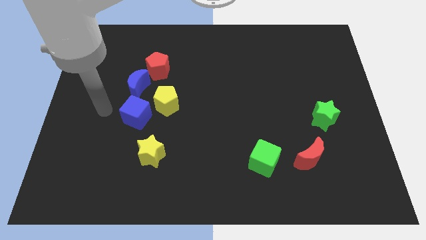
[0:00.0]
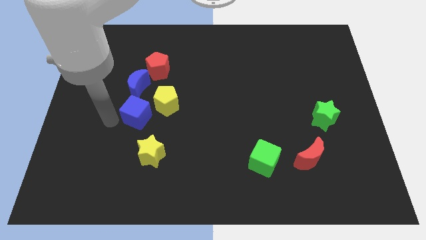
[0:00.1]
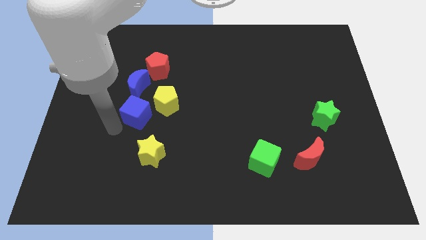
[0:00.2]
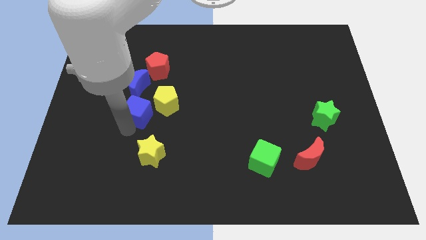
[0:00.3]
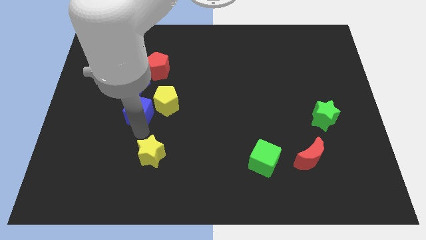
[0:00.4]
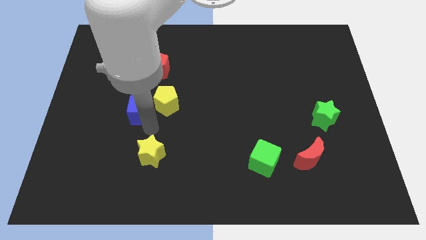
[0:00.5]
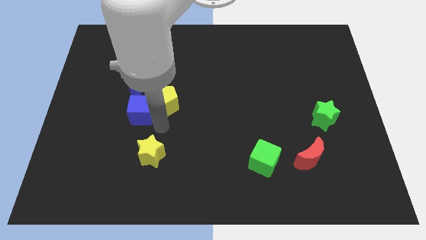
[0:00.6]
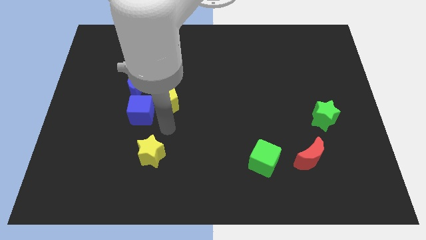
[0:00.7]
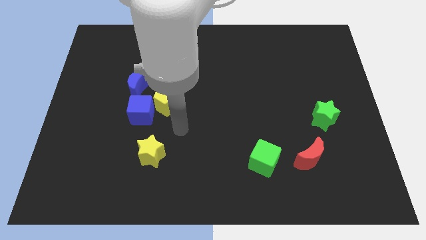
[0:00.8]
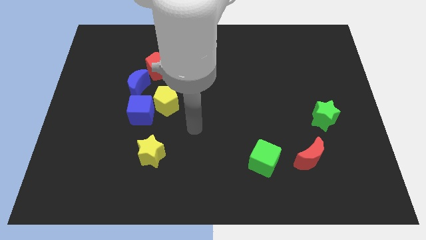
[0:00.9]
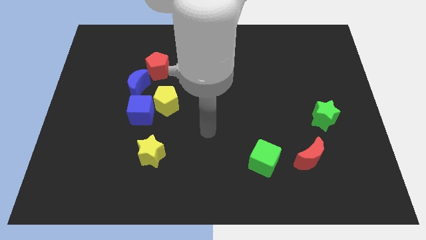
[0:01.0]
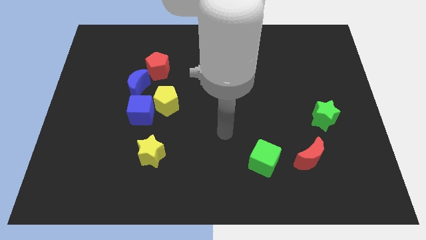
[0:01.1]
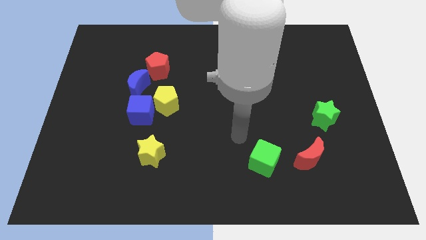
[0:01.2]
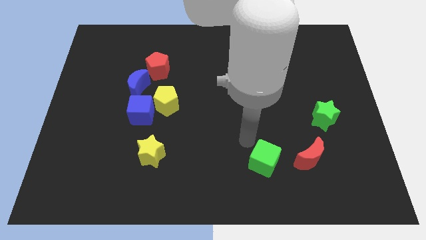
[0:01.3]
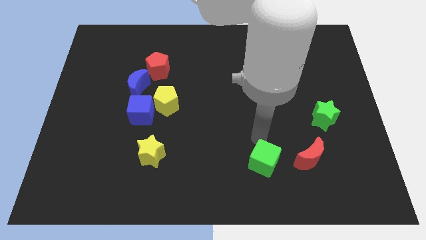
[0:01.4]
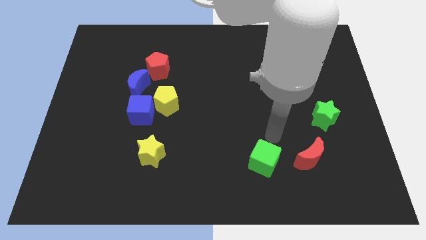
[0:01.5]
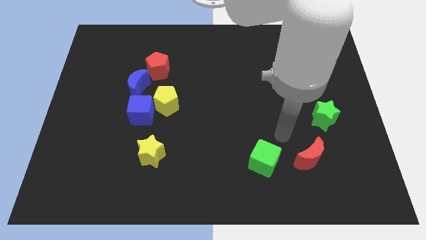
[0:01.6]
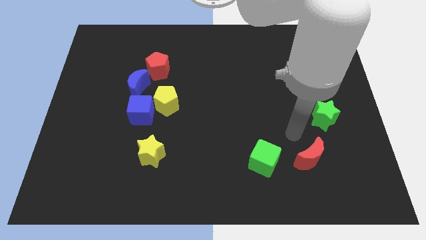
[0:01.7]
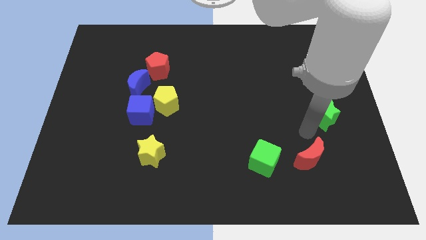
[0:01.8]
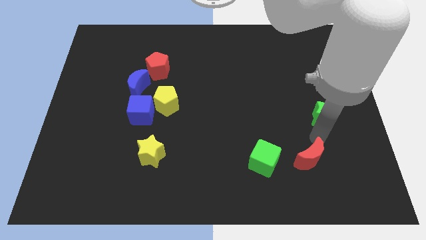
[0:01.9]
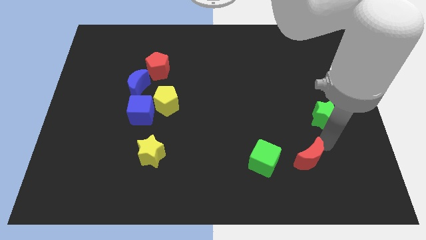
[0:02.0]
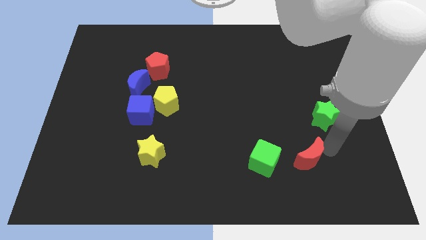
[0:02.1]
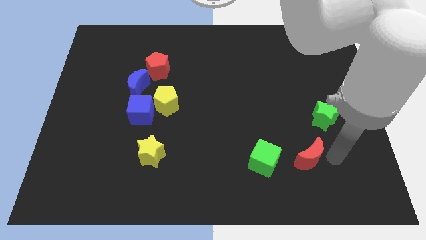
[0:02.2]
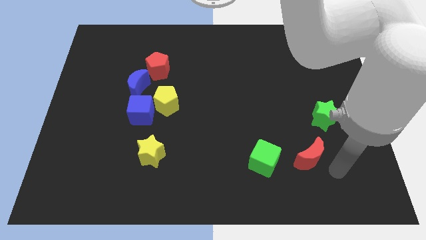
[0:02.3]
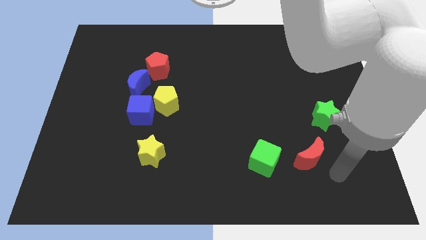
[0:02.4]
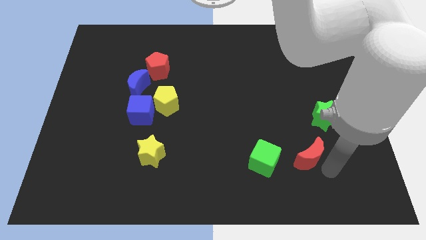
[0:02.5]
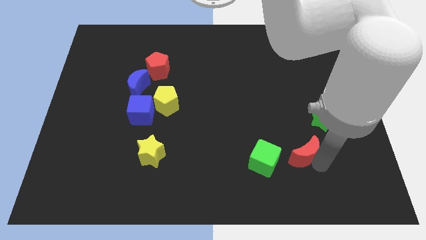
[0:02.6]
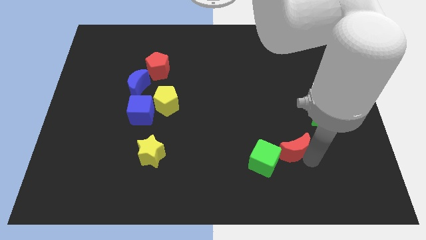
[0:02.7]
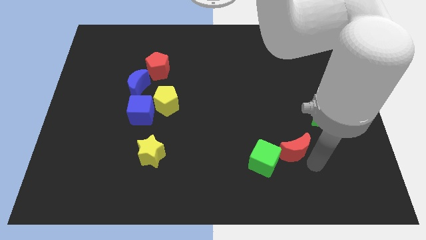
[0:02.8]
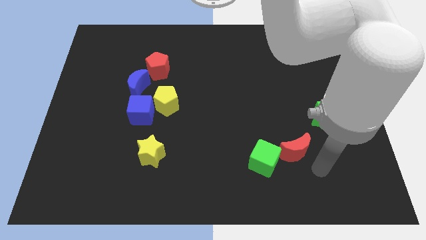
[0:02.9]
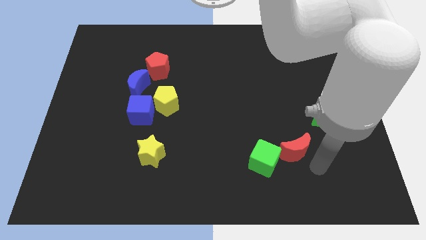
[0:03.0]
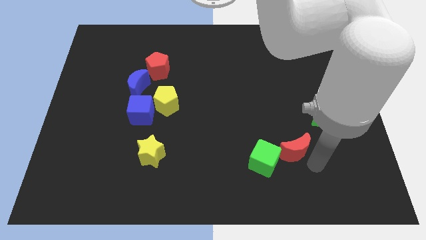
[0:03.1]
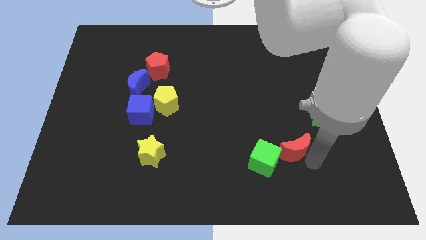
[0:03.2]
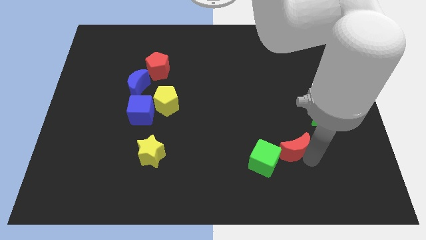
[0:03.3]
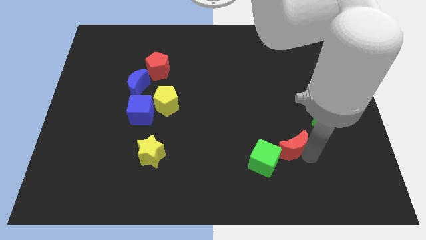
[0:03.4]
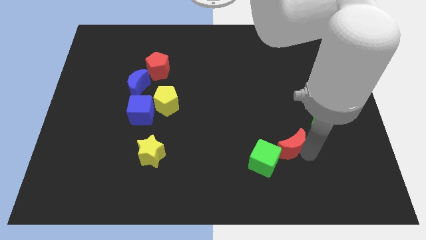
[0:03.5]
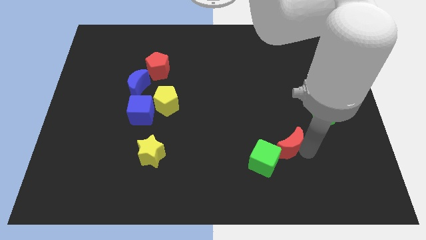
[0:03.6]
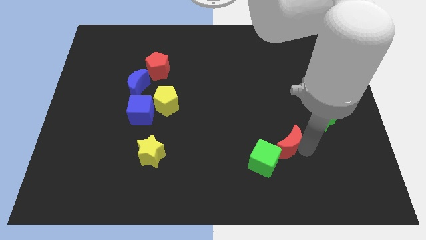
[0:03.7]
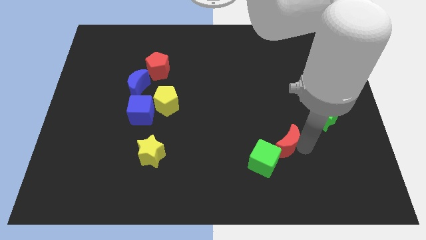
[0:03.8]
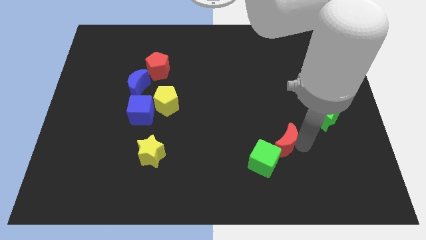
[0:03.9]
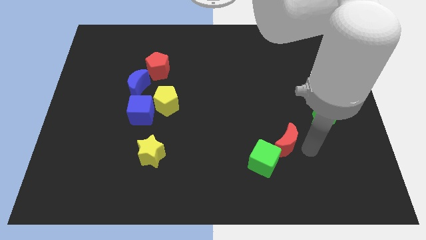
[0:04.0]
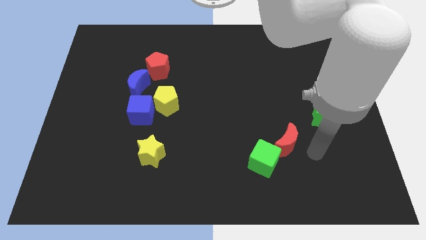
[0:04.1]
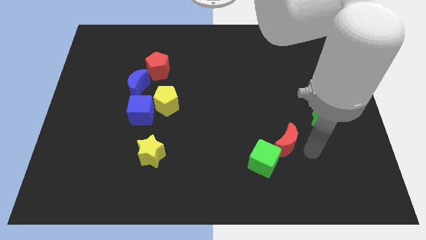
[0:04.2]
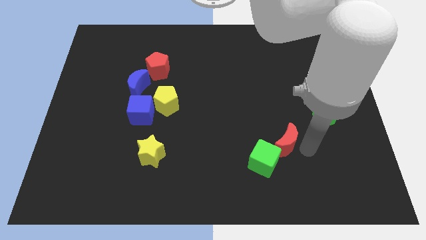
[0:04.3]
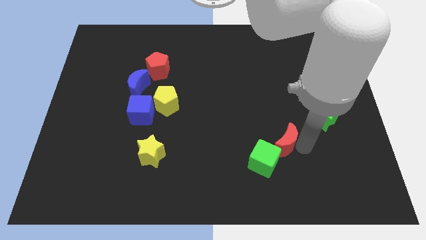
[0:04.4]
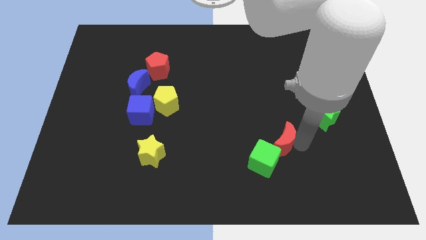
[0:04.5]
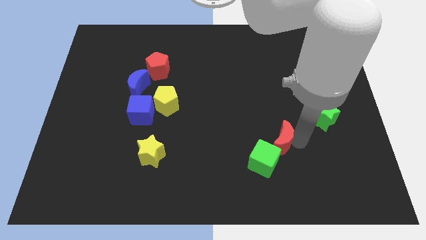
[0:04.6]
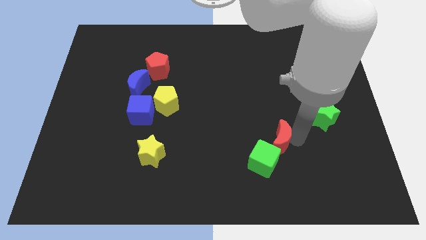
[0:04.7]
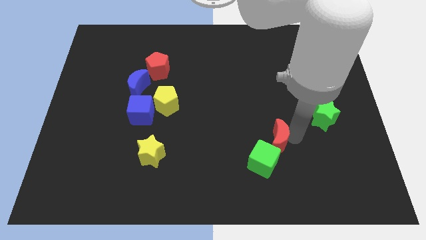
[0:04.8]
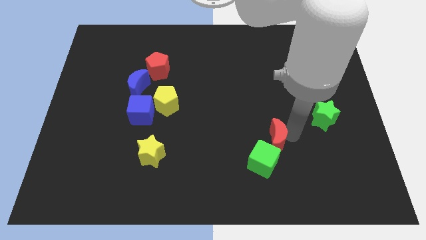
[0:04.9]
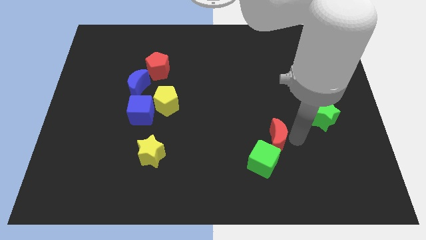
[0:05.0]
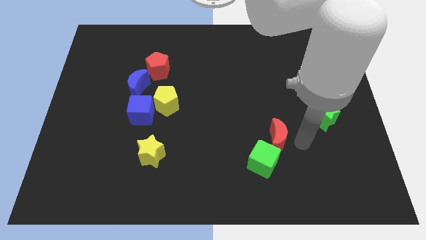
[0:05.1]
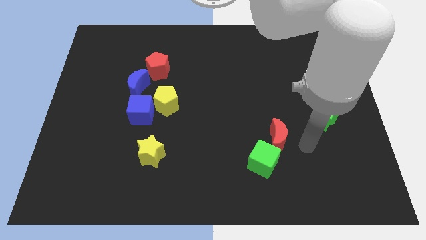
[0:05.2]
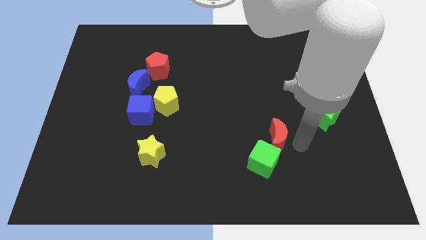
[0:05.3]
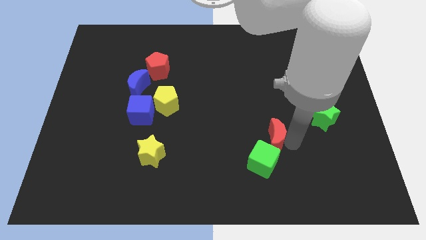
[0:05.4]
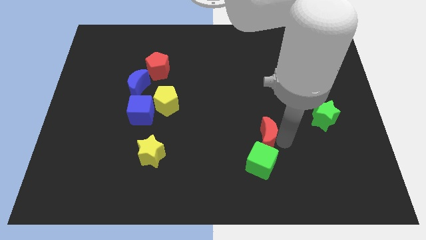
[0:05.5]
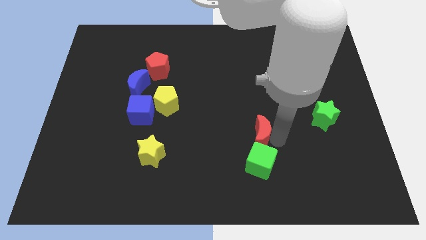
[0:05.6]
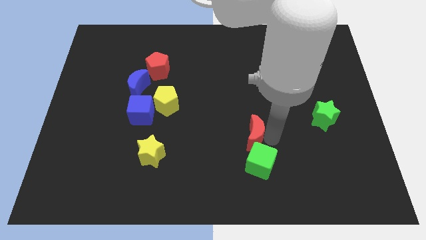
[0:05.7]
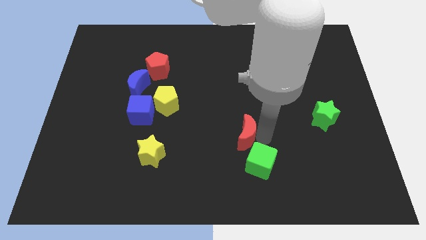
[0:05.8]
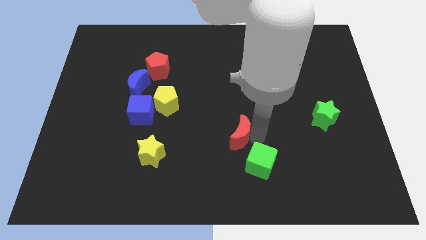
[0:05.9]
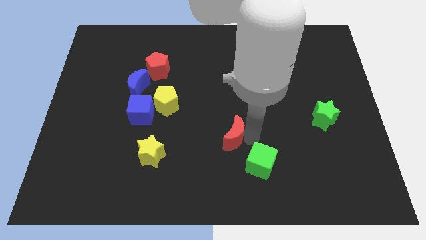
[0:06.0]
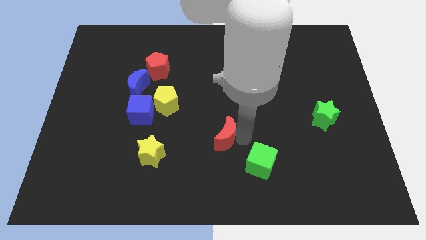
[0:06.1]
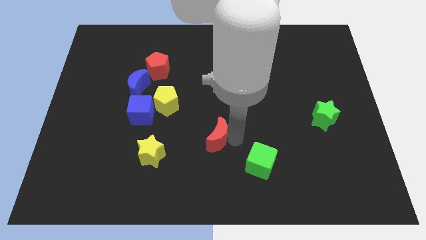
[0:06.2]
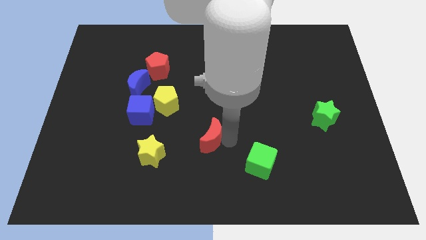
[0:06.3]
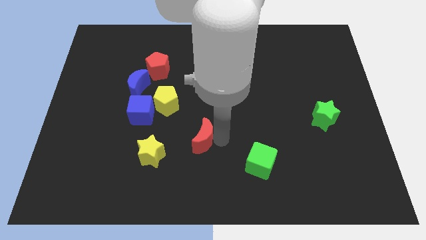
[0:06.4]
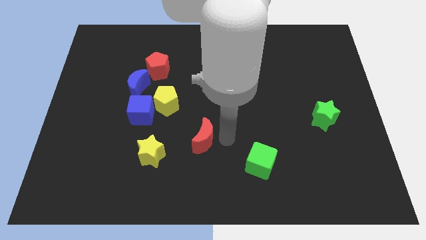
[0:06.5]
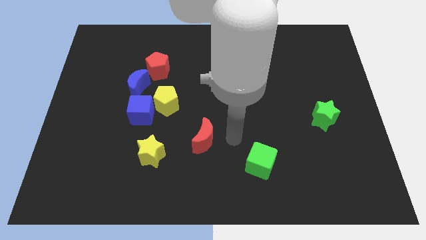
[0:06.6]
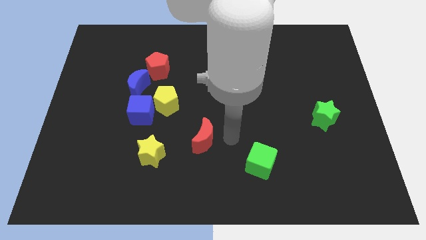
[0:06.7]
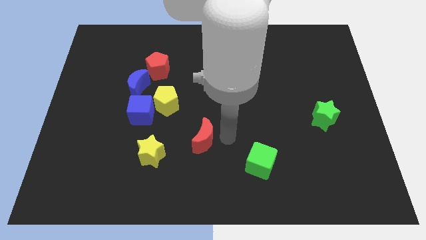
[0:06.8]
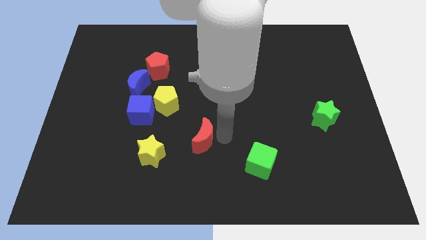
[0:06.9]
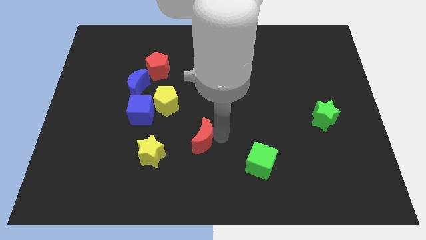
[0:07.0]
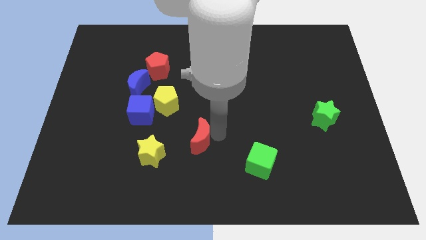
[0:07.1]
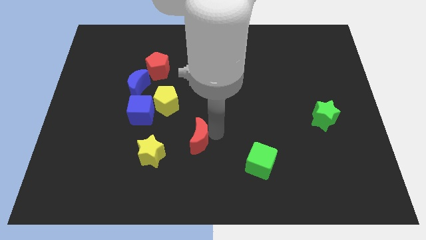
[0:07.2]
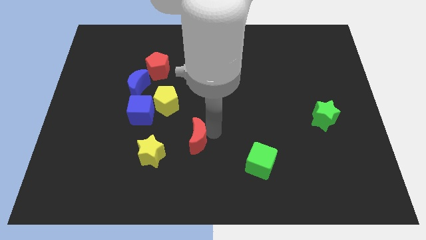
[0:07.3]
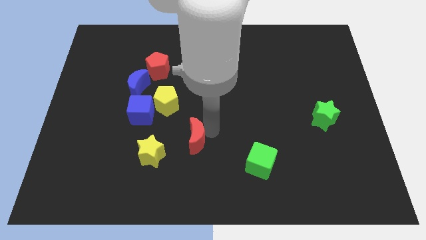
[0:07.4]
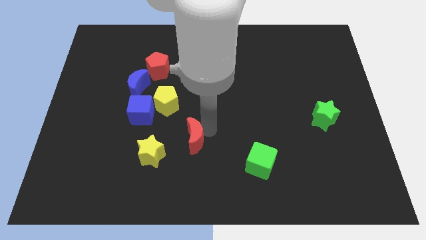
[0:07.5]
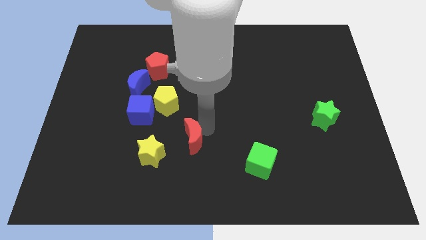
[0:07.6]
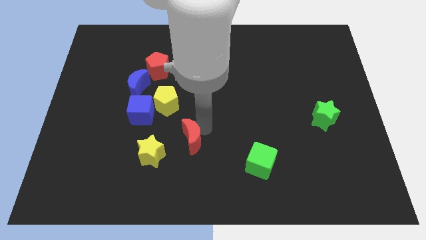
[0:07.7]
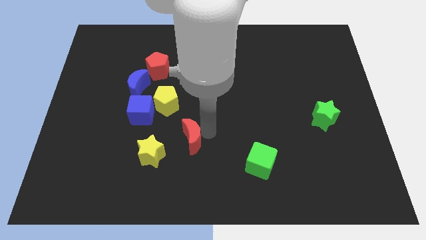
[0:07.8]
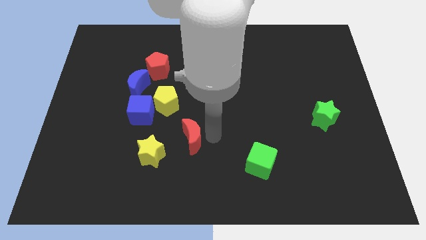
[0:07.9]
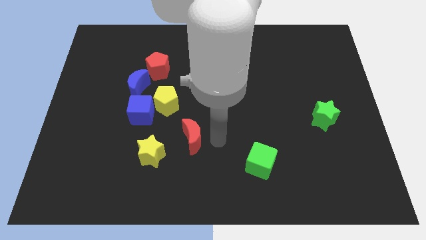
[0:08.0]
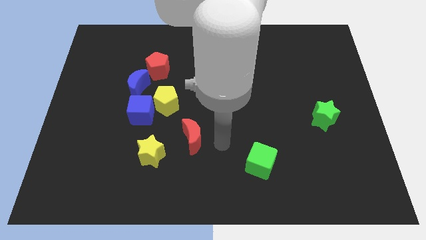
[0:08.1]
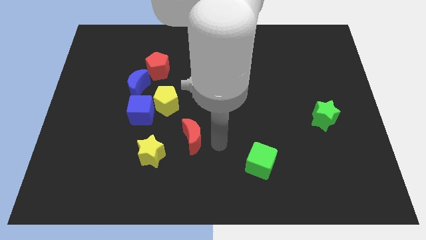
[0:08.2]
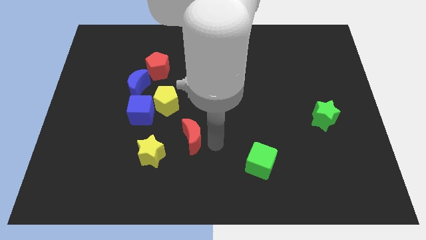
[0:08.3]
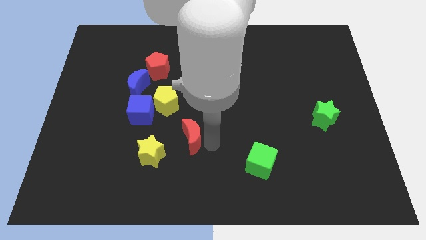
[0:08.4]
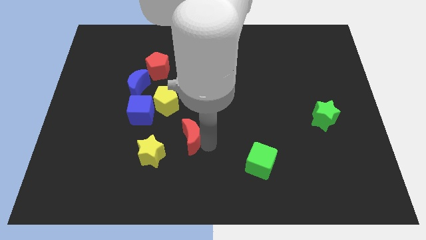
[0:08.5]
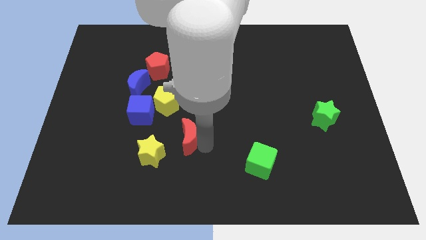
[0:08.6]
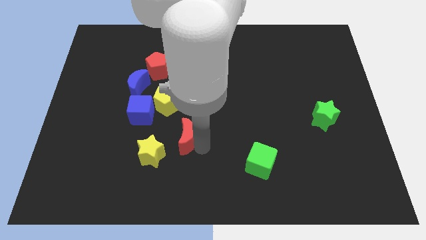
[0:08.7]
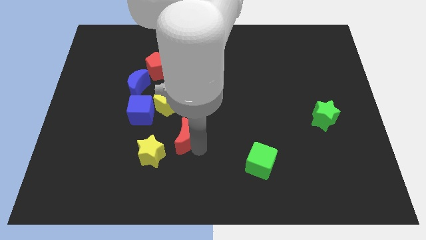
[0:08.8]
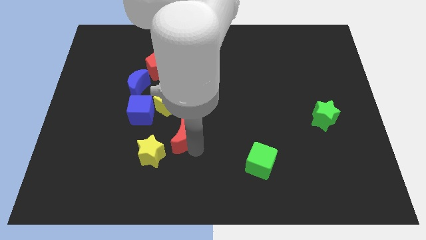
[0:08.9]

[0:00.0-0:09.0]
slide the red moon to the bottom right of the blue cube
